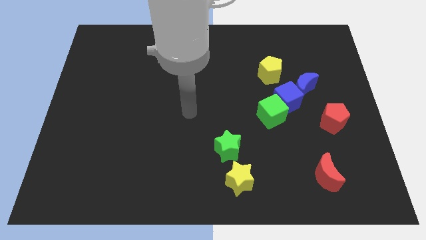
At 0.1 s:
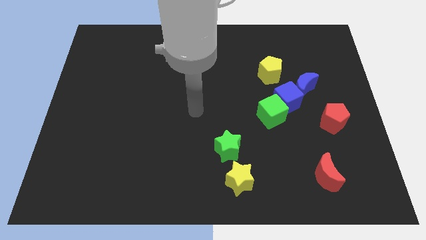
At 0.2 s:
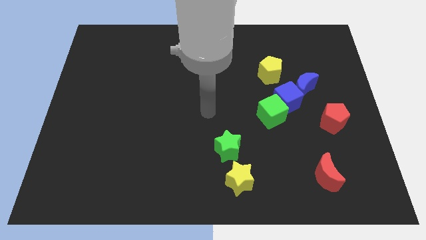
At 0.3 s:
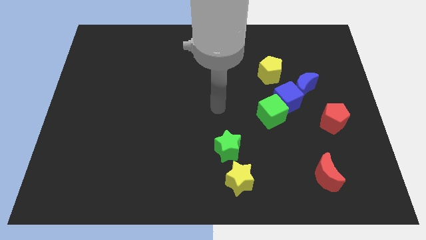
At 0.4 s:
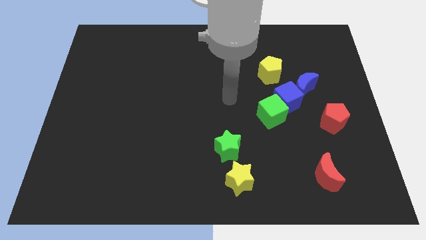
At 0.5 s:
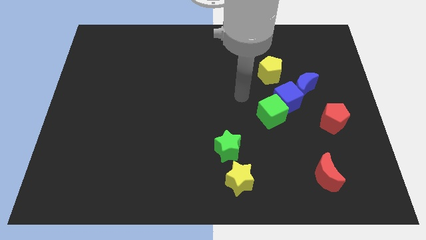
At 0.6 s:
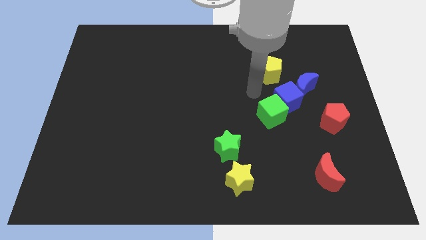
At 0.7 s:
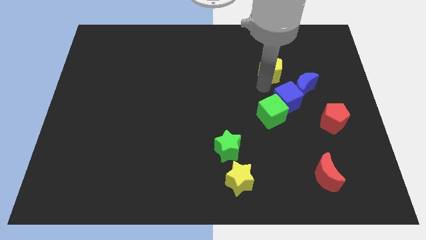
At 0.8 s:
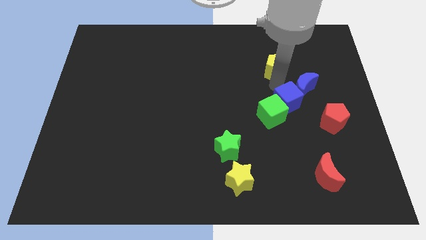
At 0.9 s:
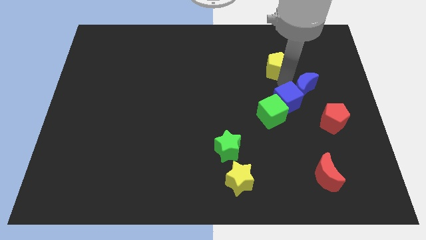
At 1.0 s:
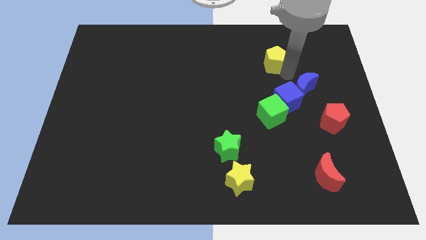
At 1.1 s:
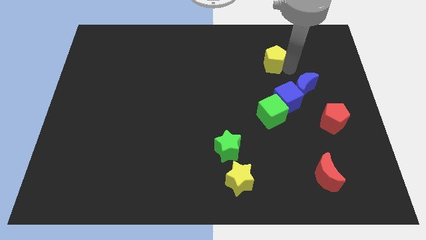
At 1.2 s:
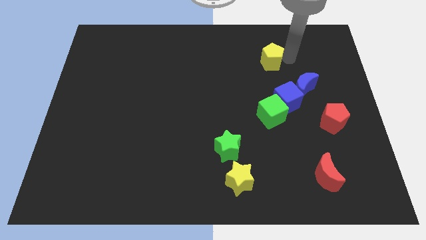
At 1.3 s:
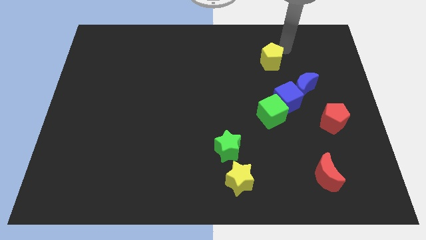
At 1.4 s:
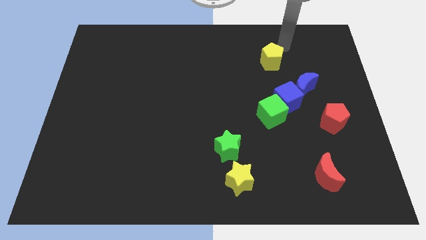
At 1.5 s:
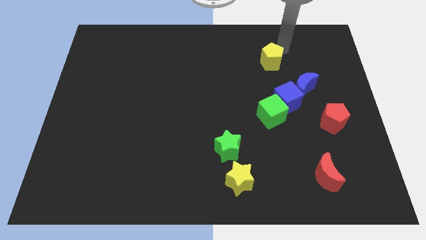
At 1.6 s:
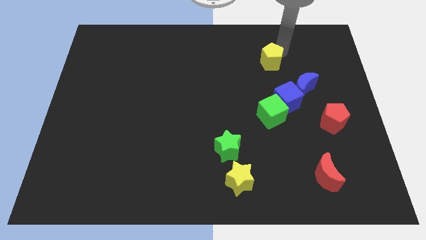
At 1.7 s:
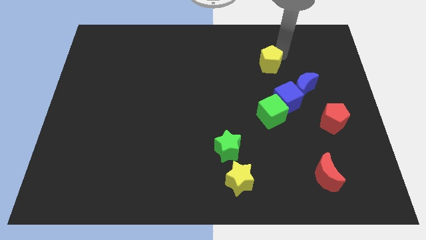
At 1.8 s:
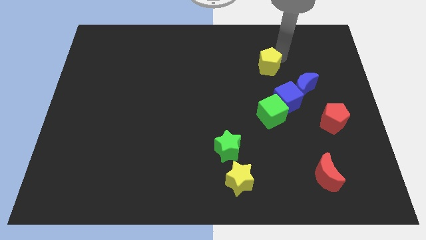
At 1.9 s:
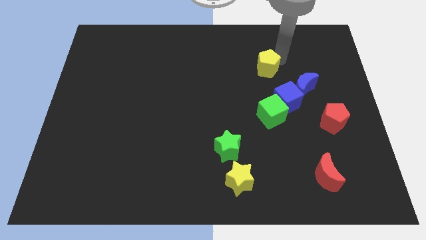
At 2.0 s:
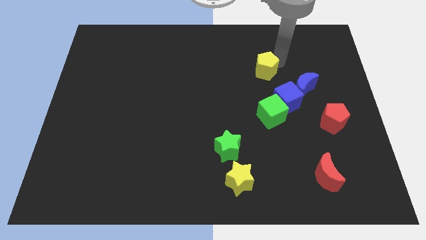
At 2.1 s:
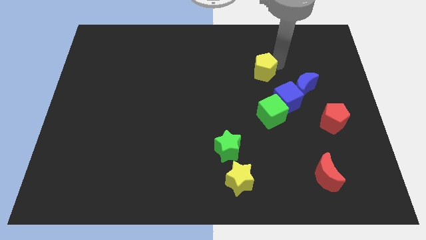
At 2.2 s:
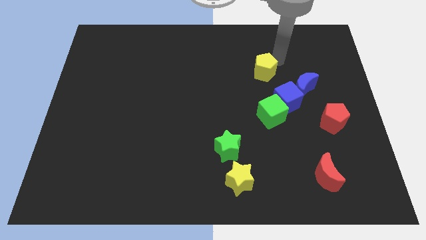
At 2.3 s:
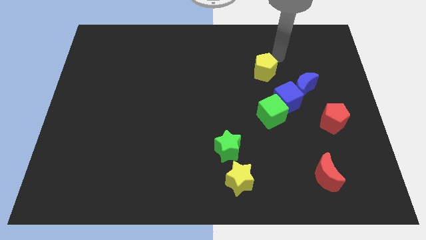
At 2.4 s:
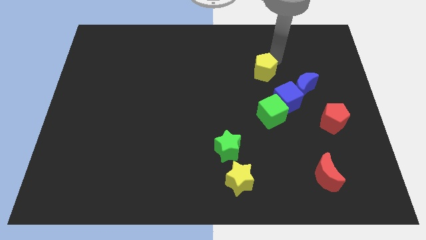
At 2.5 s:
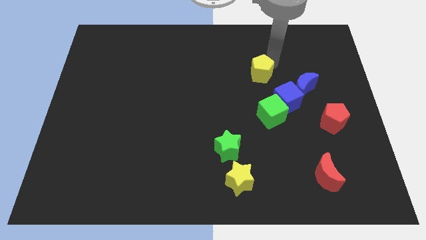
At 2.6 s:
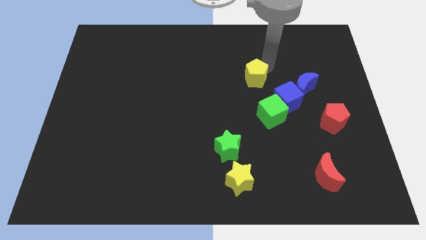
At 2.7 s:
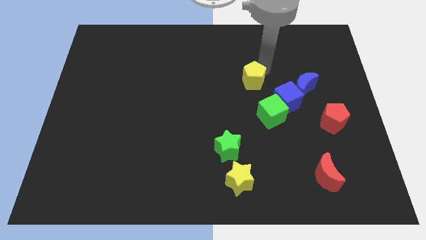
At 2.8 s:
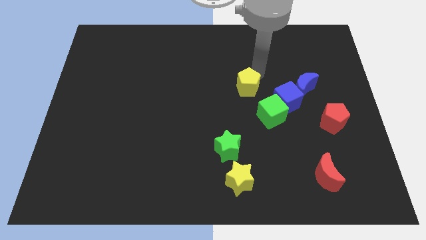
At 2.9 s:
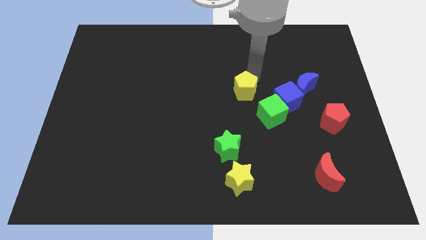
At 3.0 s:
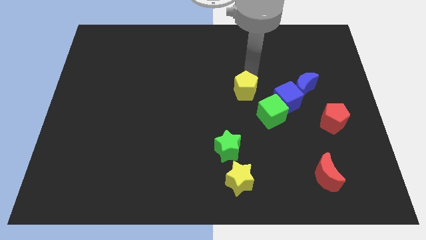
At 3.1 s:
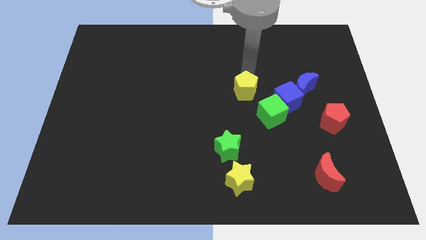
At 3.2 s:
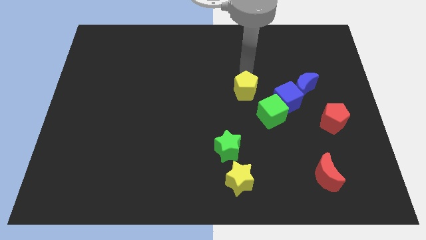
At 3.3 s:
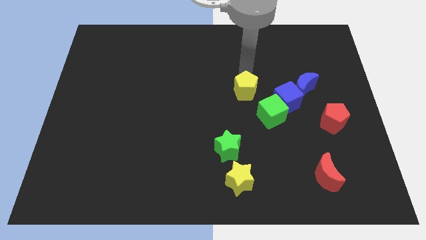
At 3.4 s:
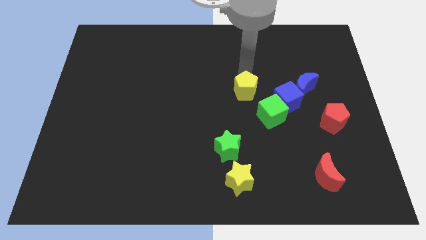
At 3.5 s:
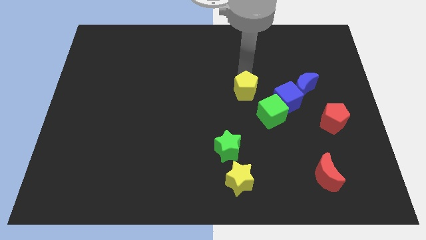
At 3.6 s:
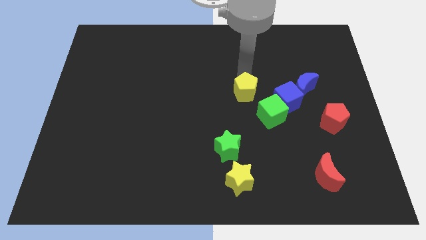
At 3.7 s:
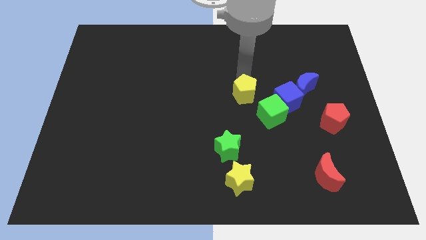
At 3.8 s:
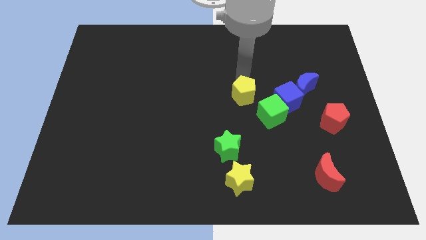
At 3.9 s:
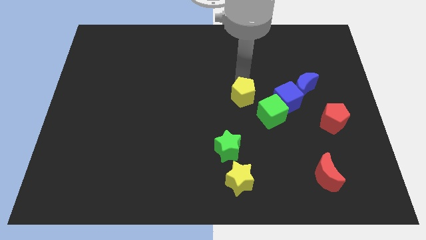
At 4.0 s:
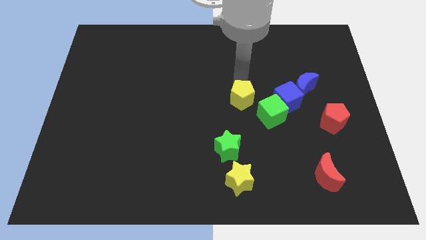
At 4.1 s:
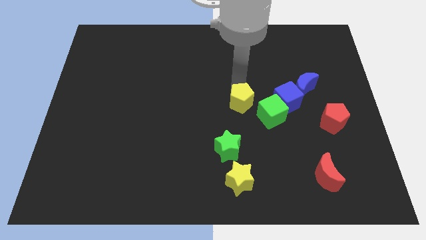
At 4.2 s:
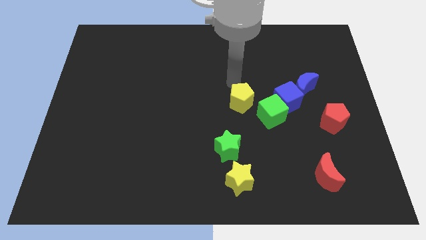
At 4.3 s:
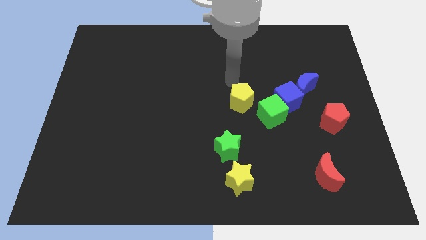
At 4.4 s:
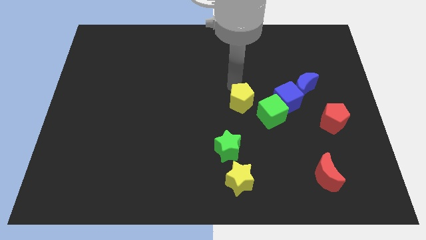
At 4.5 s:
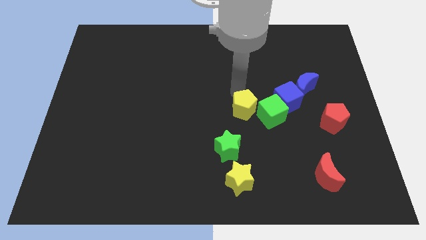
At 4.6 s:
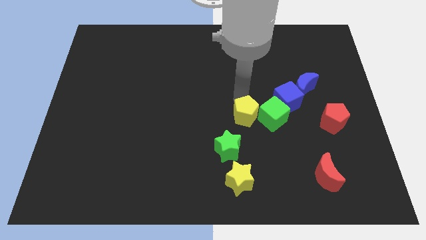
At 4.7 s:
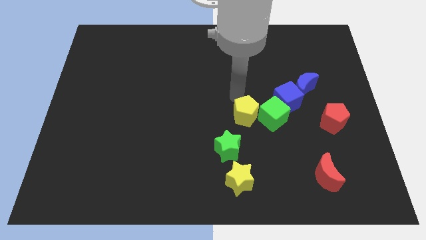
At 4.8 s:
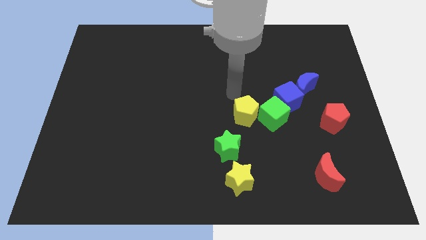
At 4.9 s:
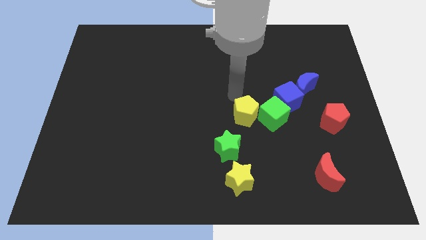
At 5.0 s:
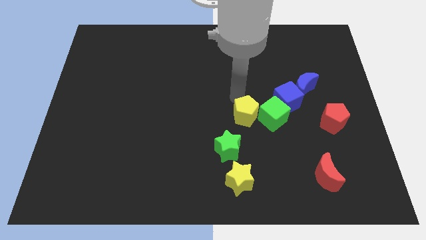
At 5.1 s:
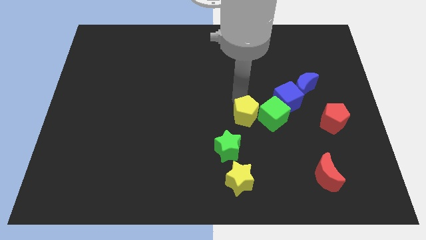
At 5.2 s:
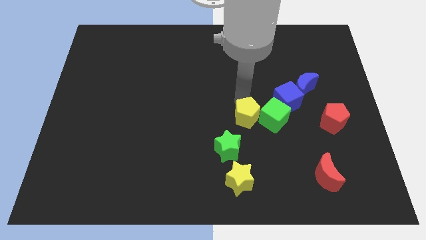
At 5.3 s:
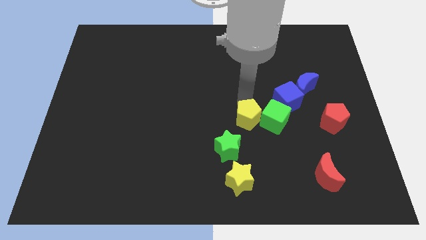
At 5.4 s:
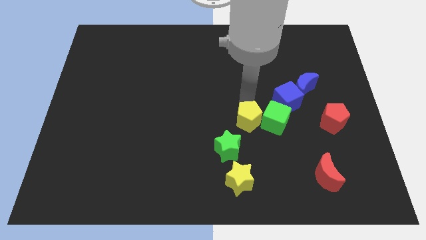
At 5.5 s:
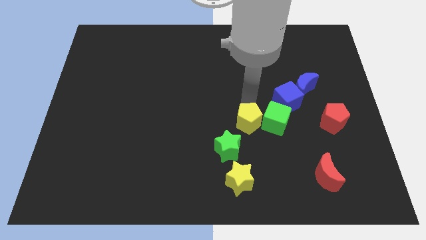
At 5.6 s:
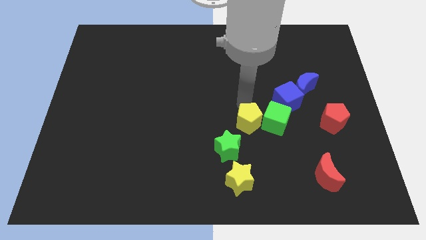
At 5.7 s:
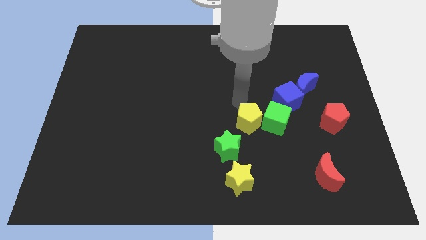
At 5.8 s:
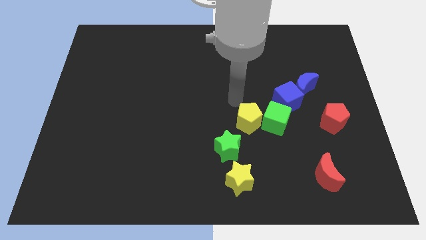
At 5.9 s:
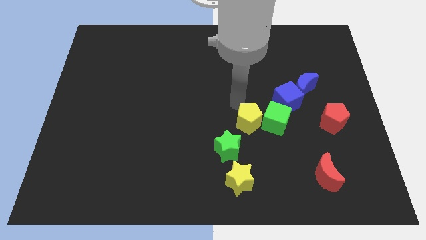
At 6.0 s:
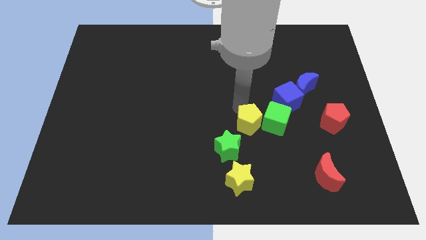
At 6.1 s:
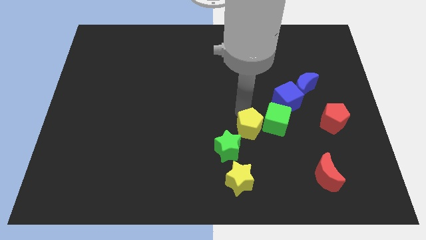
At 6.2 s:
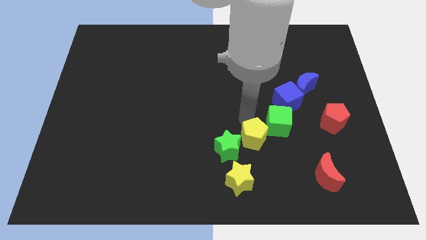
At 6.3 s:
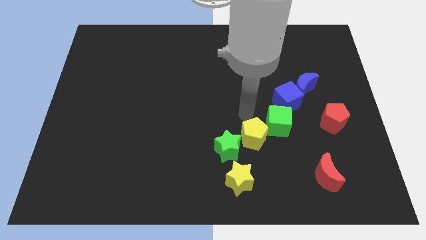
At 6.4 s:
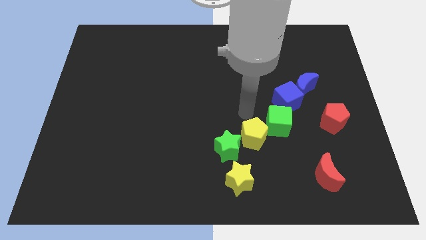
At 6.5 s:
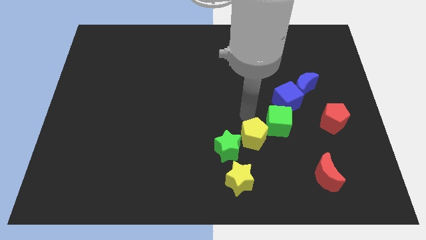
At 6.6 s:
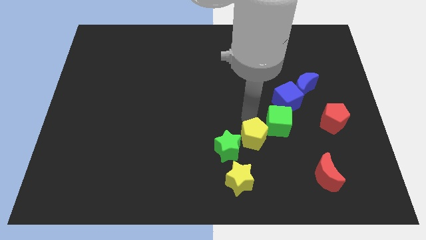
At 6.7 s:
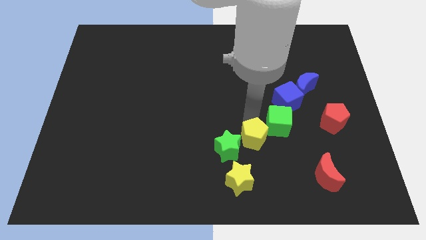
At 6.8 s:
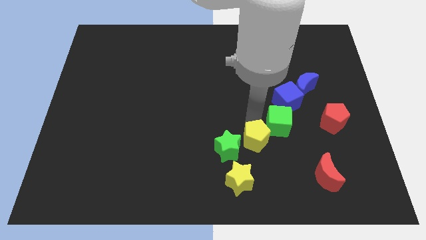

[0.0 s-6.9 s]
put the yellow pentagon to the top right side of the yellow star
